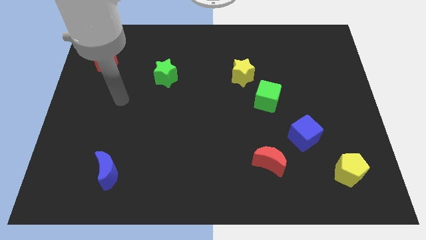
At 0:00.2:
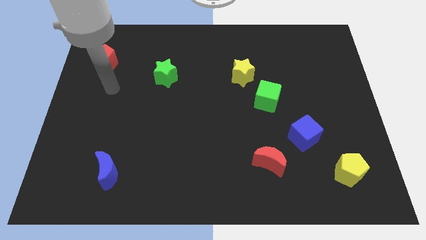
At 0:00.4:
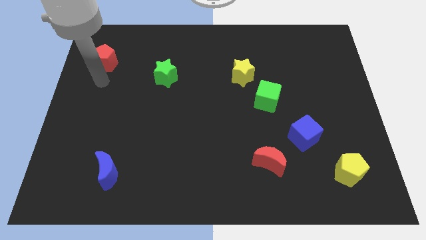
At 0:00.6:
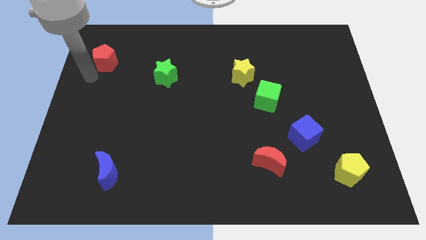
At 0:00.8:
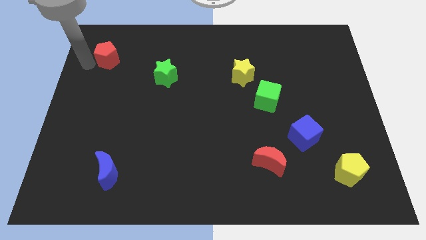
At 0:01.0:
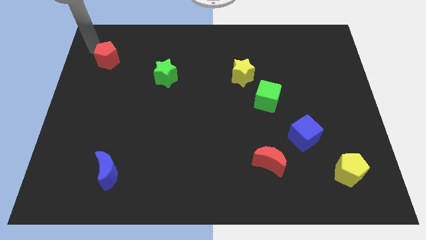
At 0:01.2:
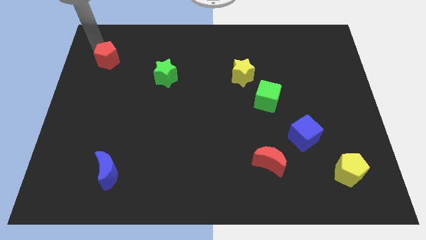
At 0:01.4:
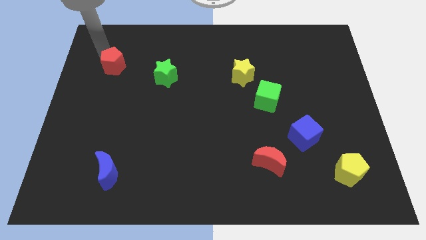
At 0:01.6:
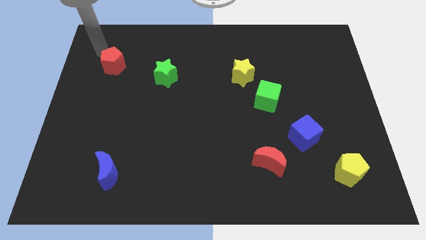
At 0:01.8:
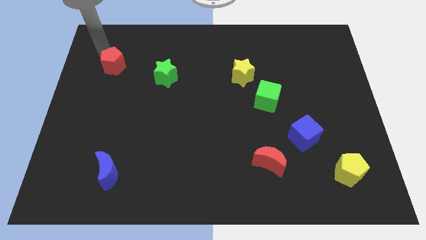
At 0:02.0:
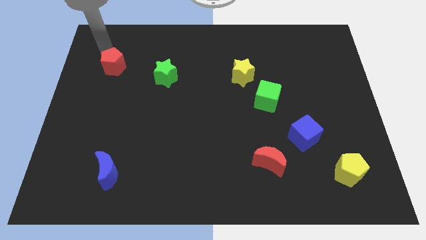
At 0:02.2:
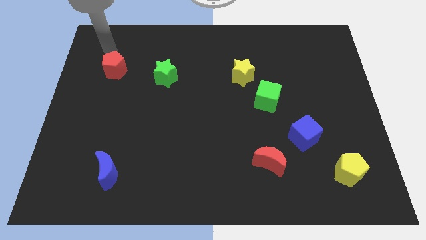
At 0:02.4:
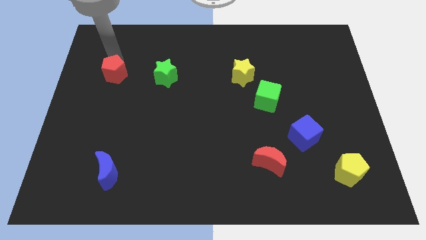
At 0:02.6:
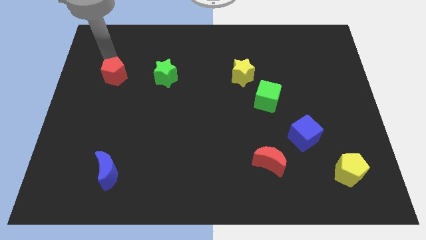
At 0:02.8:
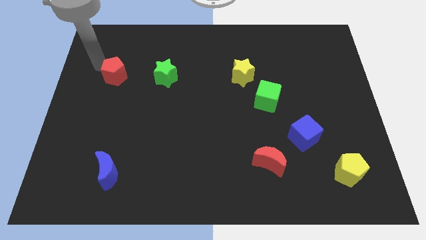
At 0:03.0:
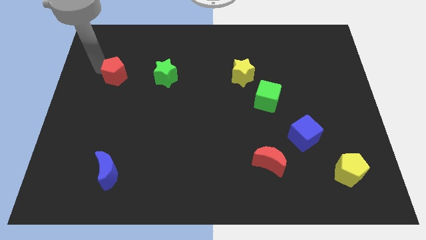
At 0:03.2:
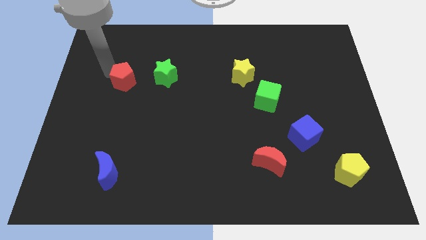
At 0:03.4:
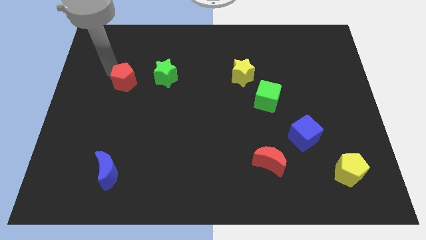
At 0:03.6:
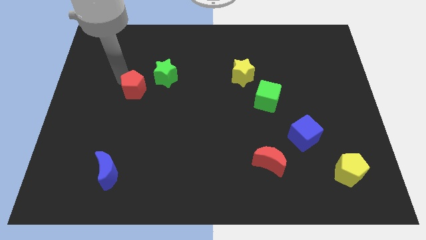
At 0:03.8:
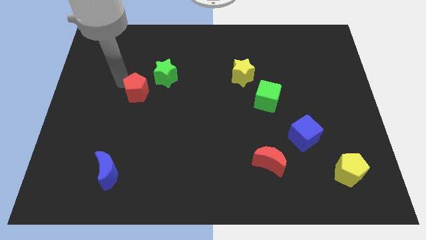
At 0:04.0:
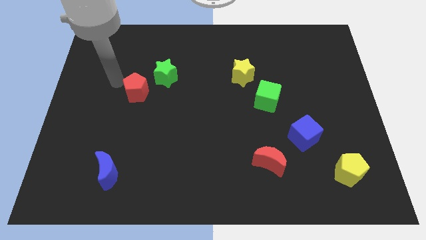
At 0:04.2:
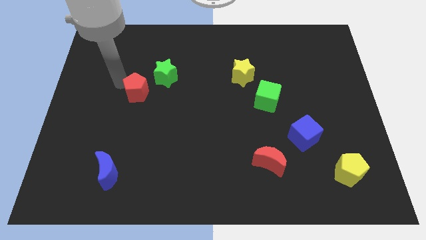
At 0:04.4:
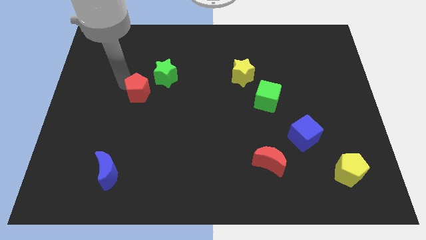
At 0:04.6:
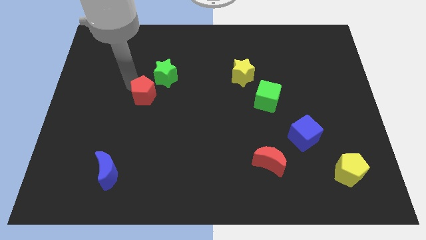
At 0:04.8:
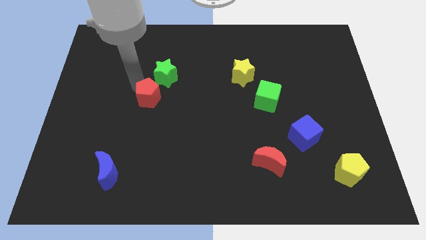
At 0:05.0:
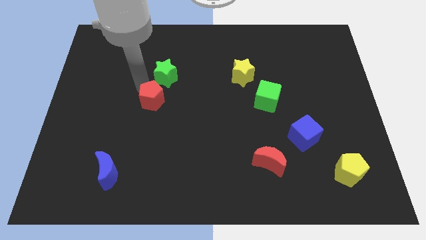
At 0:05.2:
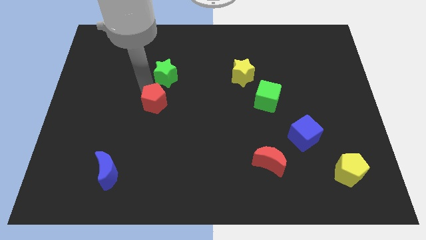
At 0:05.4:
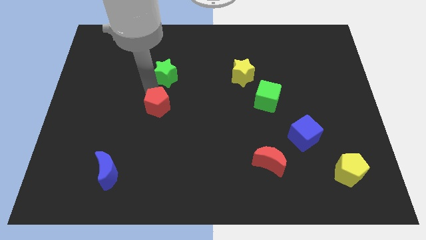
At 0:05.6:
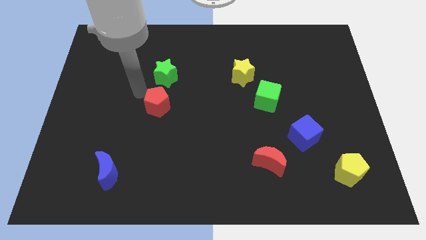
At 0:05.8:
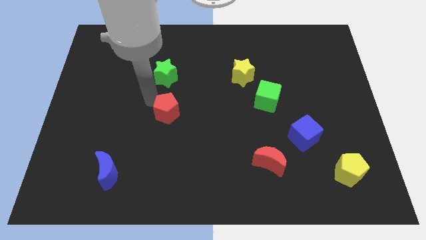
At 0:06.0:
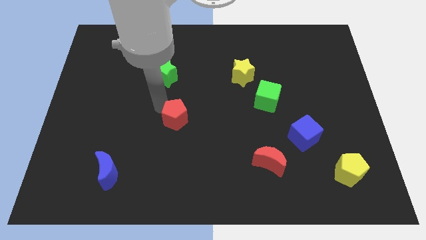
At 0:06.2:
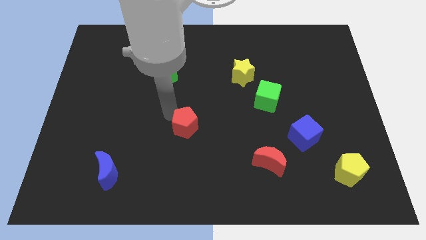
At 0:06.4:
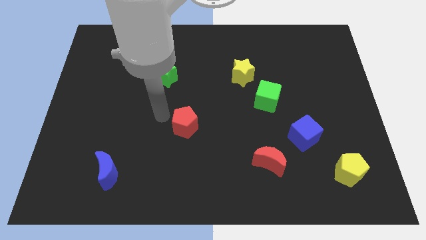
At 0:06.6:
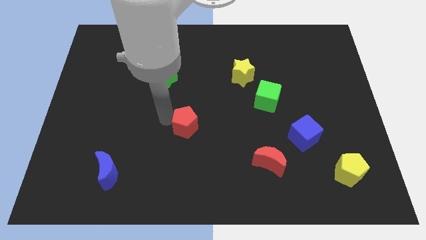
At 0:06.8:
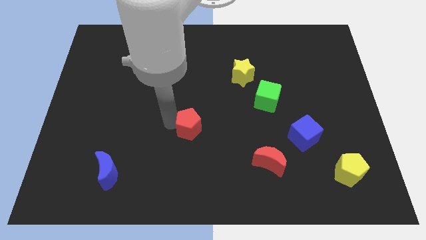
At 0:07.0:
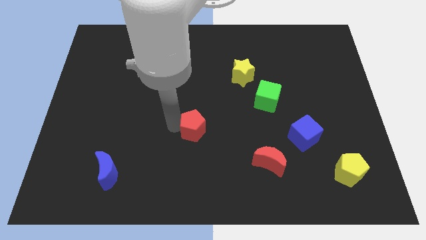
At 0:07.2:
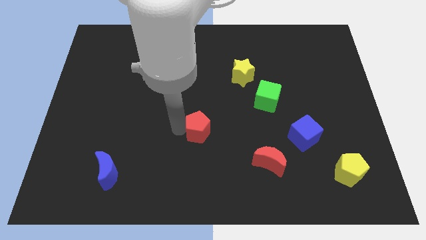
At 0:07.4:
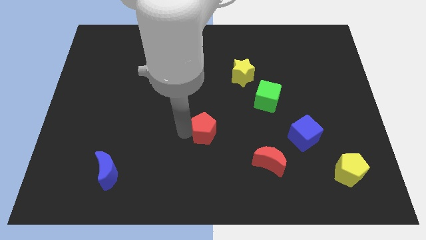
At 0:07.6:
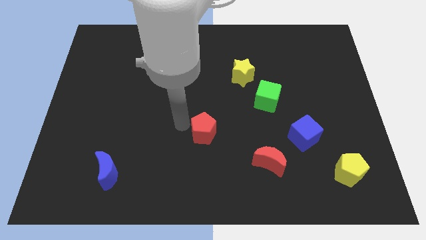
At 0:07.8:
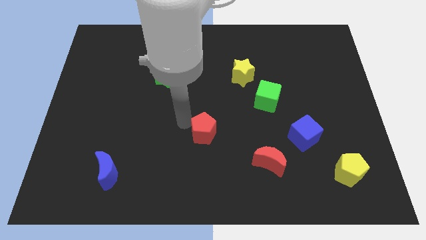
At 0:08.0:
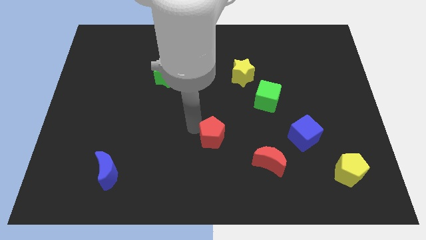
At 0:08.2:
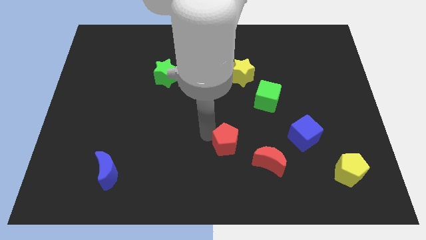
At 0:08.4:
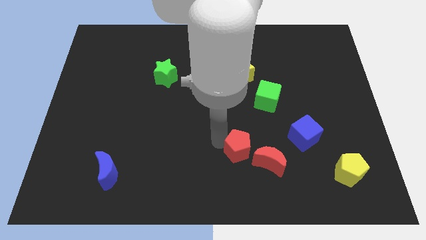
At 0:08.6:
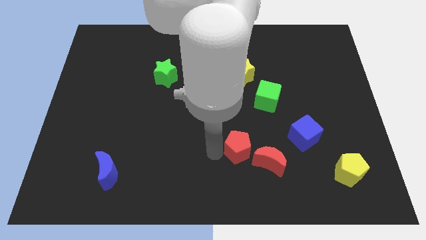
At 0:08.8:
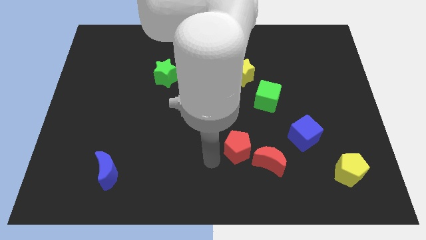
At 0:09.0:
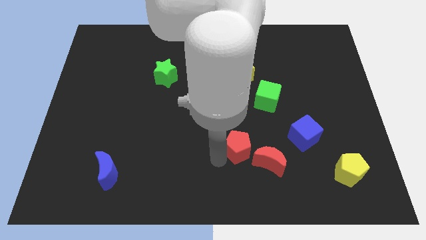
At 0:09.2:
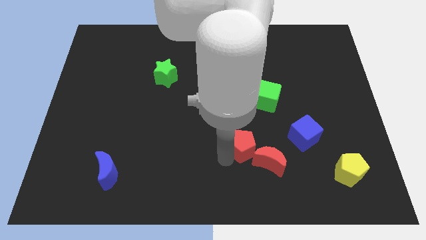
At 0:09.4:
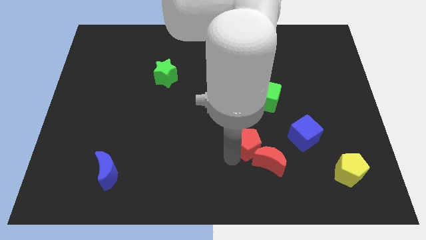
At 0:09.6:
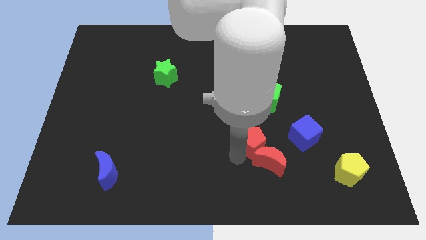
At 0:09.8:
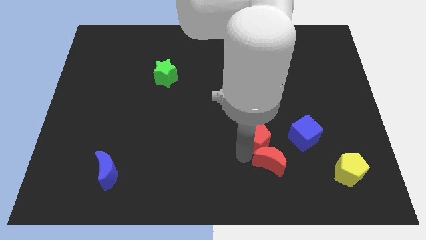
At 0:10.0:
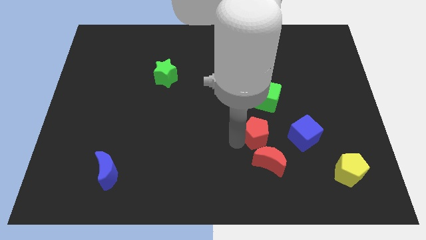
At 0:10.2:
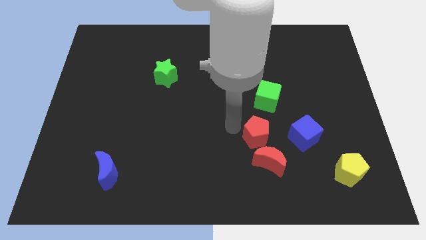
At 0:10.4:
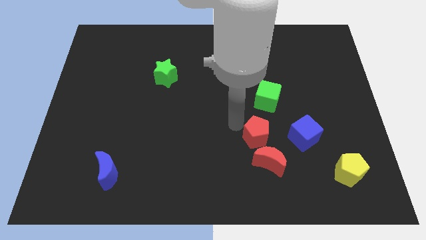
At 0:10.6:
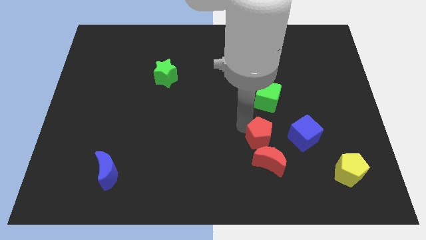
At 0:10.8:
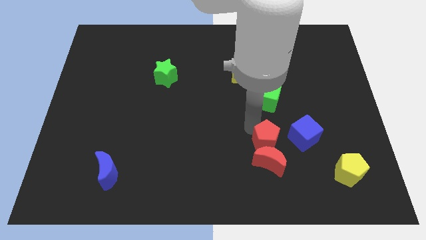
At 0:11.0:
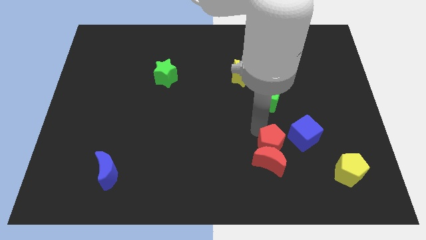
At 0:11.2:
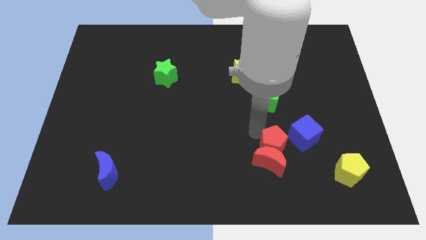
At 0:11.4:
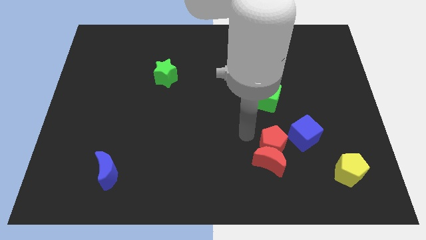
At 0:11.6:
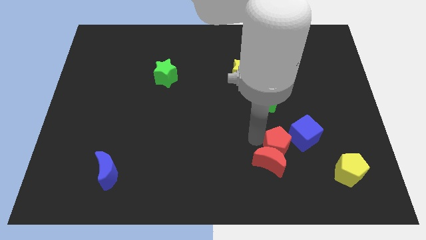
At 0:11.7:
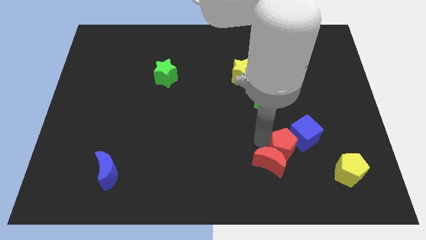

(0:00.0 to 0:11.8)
put the red pentagon right of the red moon

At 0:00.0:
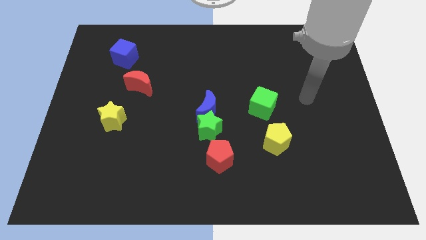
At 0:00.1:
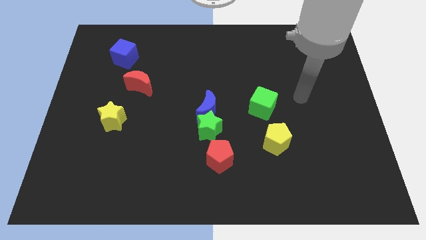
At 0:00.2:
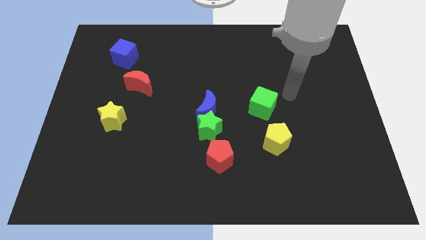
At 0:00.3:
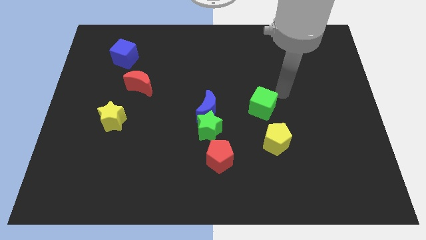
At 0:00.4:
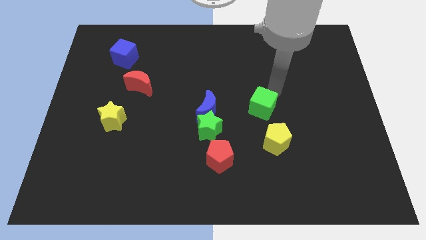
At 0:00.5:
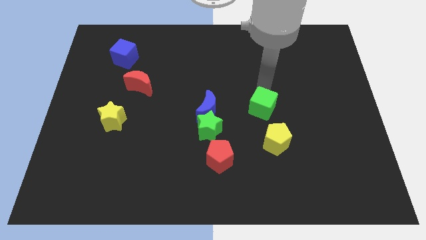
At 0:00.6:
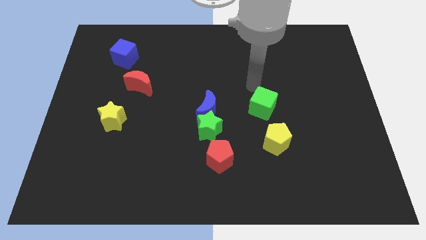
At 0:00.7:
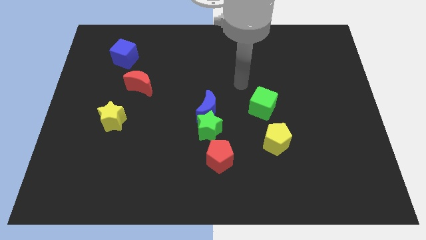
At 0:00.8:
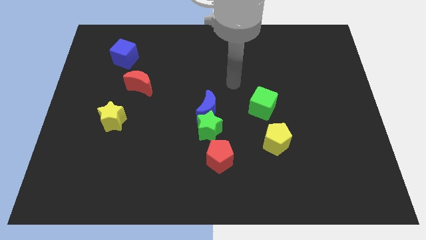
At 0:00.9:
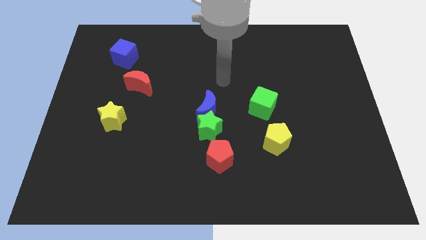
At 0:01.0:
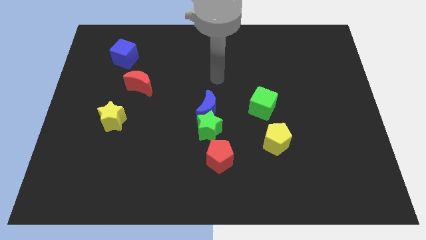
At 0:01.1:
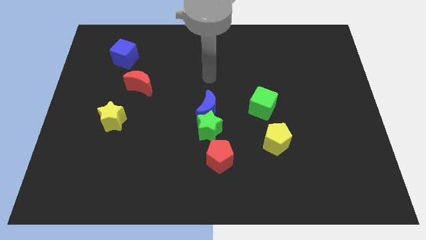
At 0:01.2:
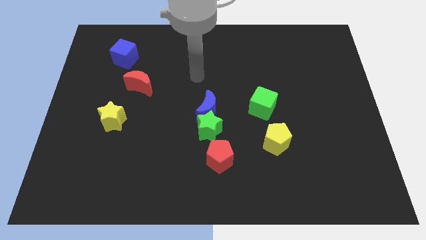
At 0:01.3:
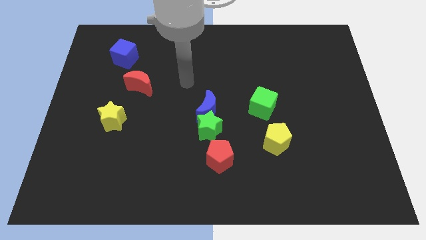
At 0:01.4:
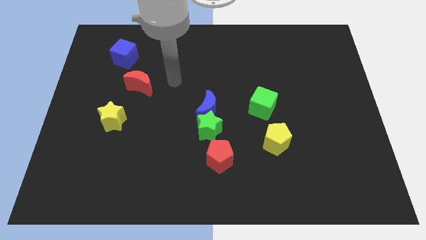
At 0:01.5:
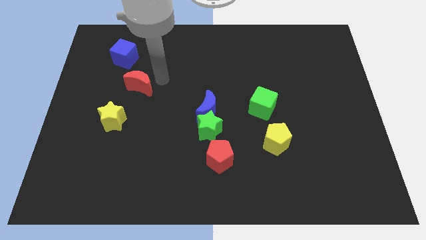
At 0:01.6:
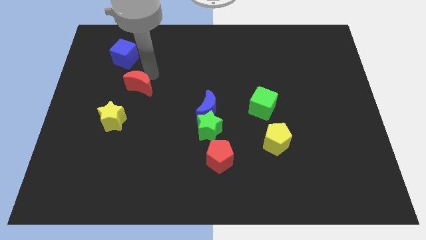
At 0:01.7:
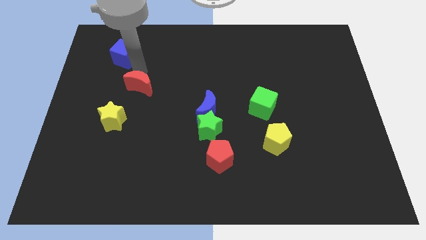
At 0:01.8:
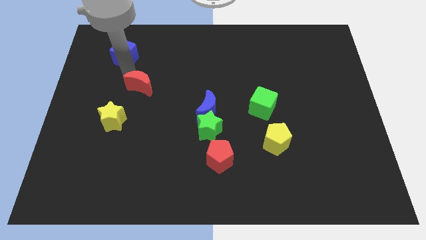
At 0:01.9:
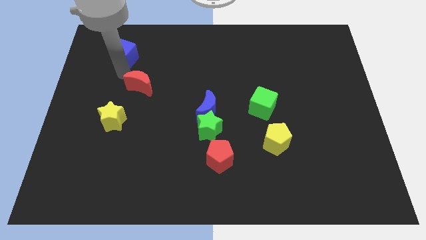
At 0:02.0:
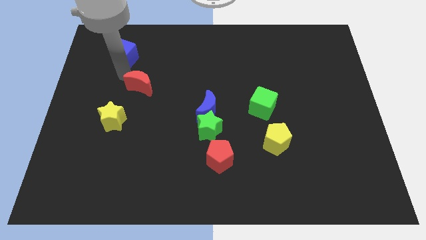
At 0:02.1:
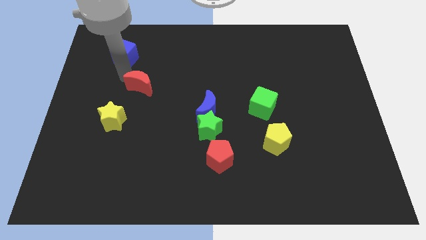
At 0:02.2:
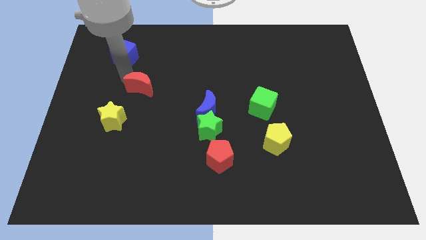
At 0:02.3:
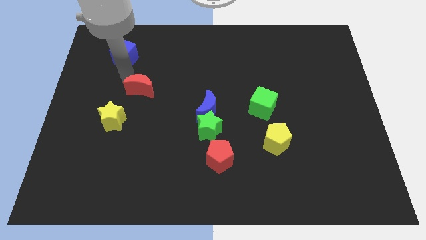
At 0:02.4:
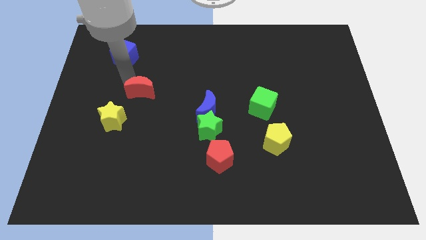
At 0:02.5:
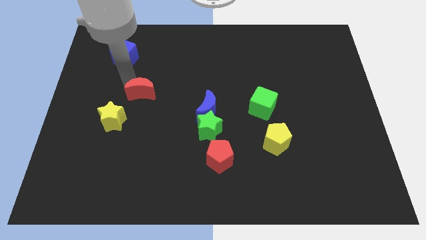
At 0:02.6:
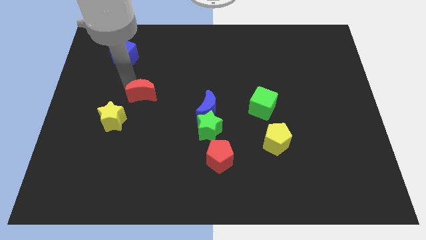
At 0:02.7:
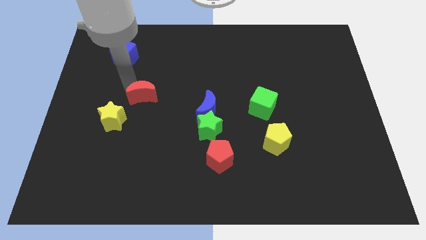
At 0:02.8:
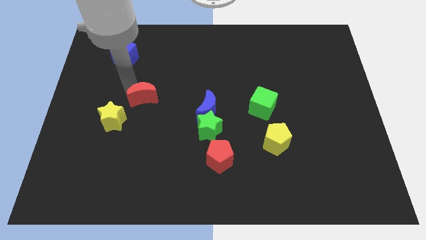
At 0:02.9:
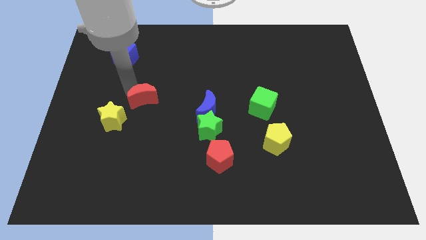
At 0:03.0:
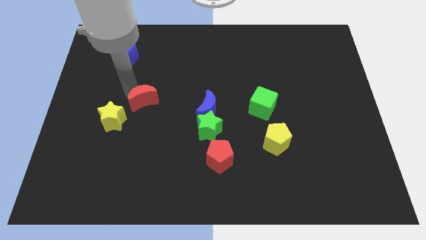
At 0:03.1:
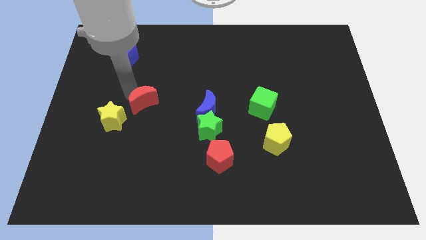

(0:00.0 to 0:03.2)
move the red moon to the left side of the blue moon
